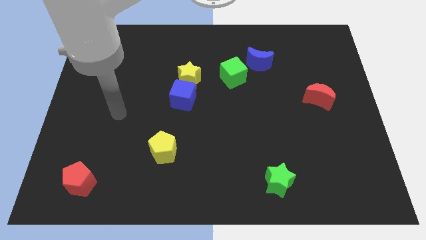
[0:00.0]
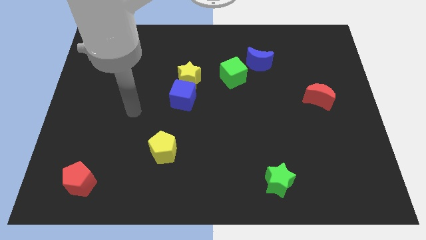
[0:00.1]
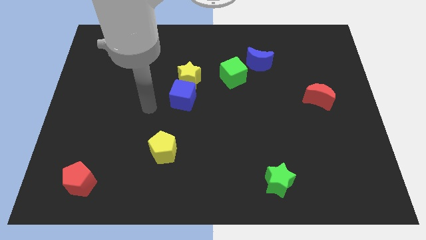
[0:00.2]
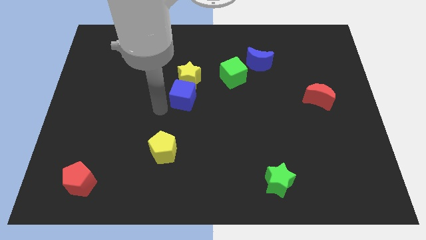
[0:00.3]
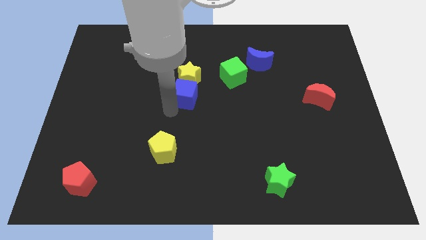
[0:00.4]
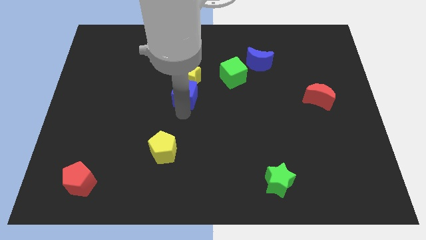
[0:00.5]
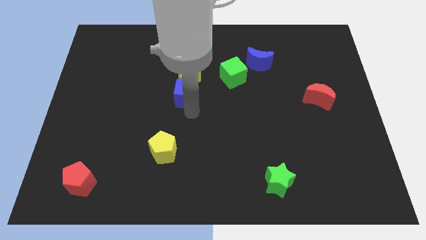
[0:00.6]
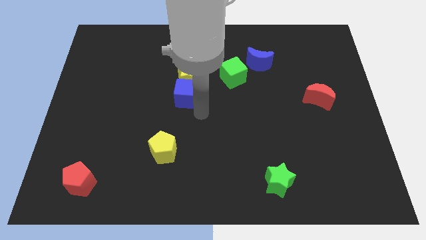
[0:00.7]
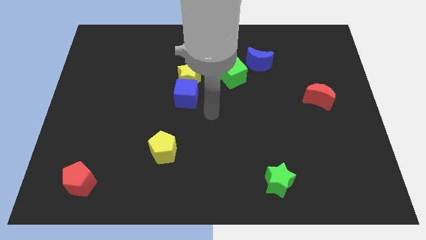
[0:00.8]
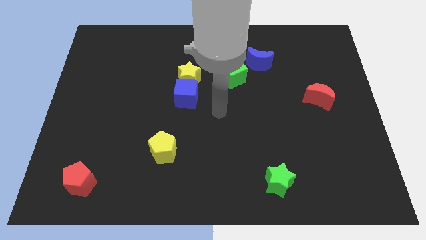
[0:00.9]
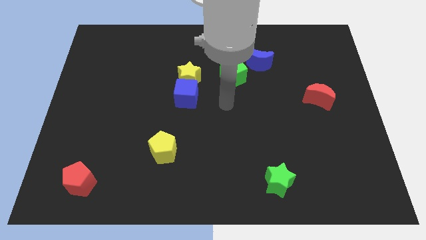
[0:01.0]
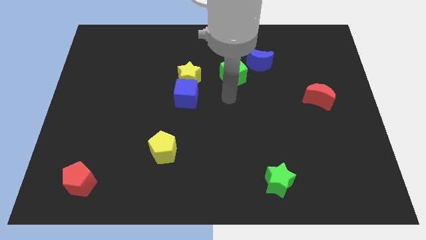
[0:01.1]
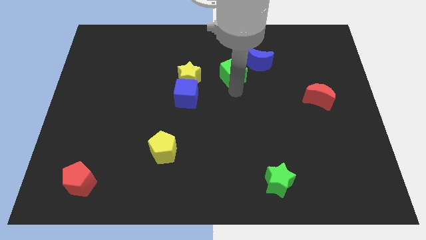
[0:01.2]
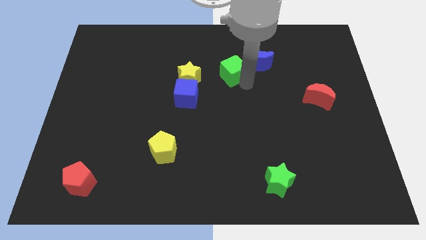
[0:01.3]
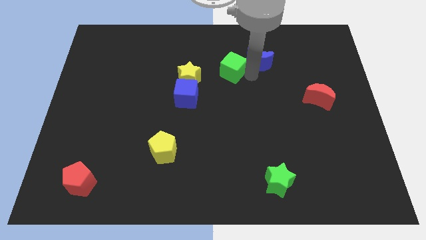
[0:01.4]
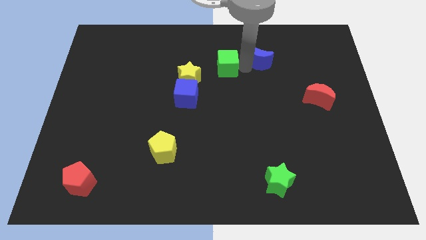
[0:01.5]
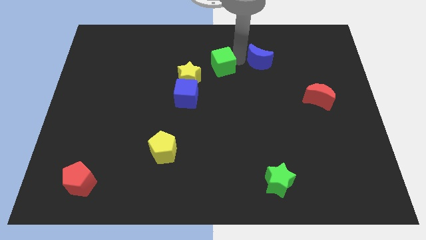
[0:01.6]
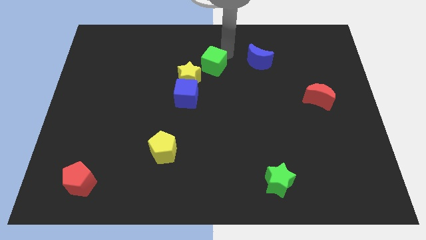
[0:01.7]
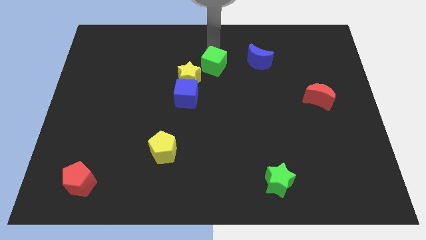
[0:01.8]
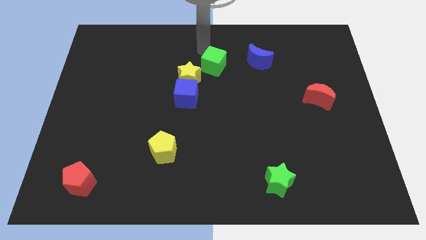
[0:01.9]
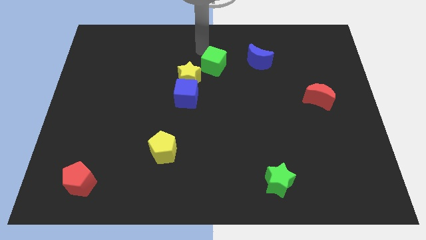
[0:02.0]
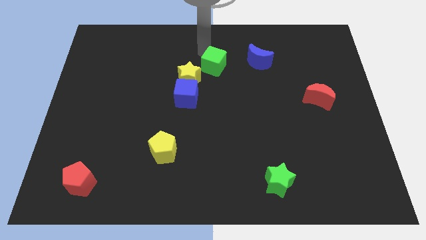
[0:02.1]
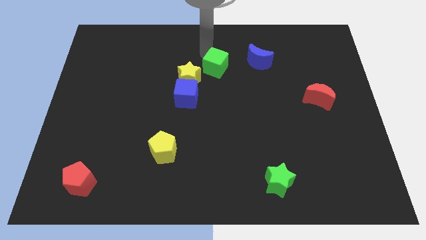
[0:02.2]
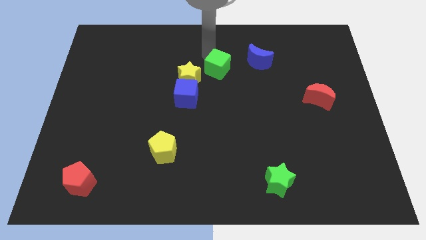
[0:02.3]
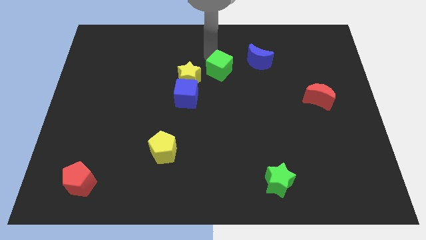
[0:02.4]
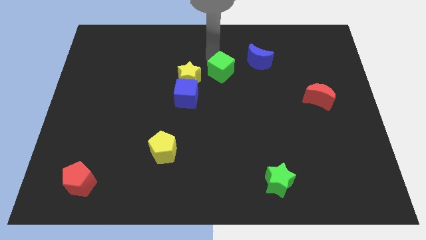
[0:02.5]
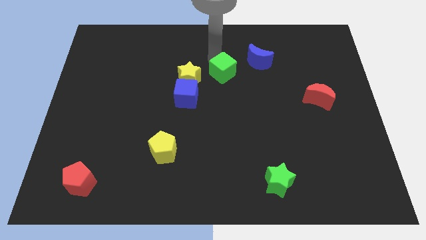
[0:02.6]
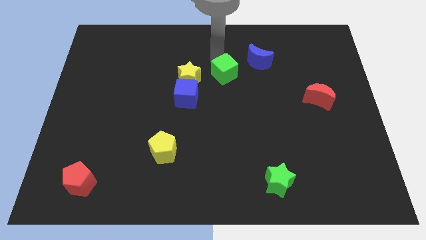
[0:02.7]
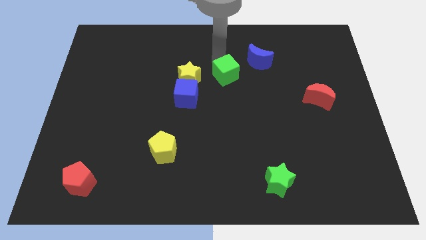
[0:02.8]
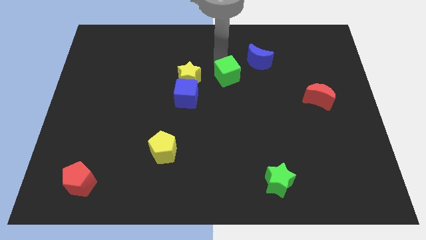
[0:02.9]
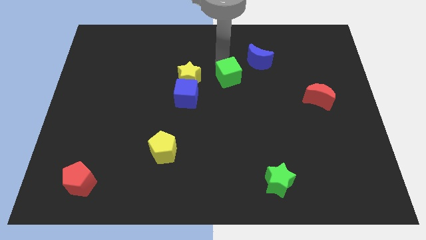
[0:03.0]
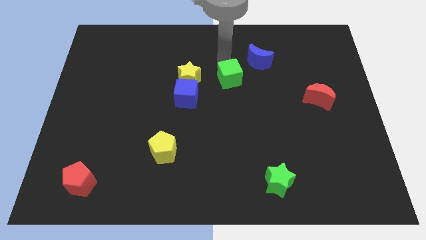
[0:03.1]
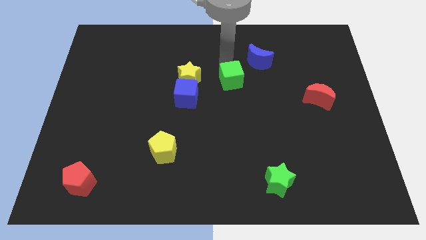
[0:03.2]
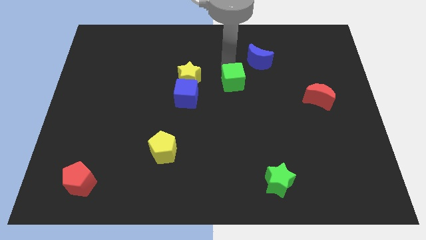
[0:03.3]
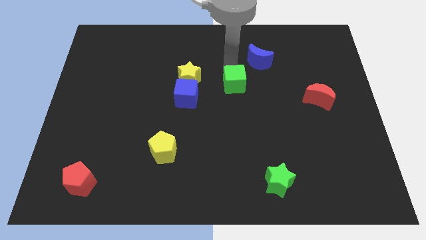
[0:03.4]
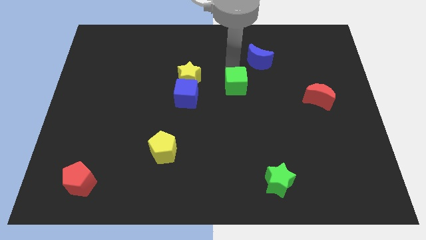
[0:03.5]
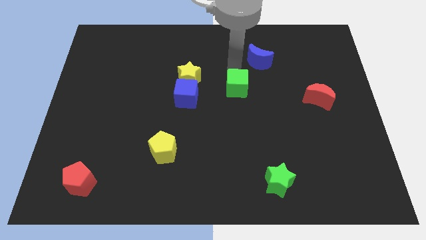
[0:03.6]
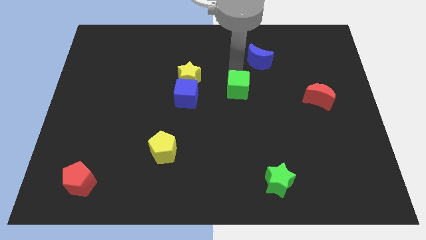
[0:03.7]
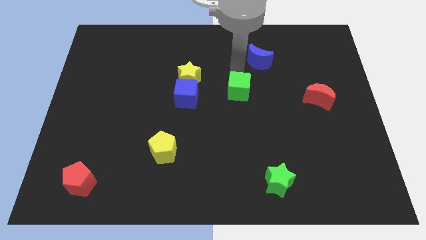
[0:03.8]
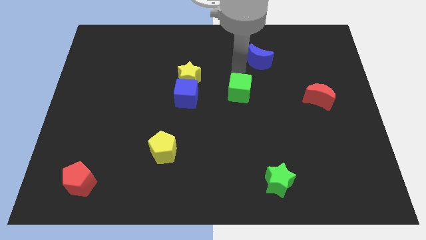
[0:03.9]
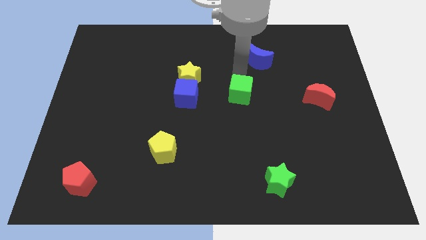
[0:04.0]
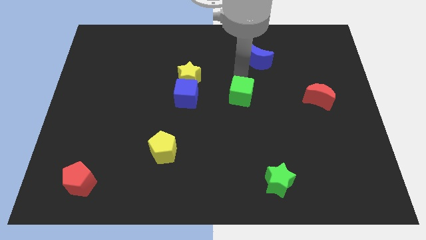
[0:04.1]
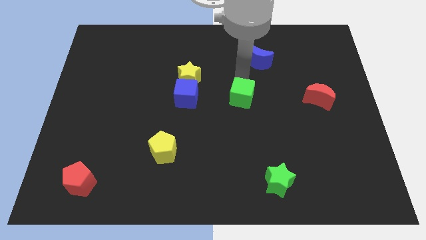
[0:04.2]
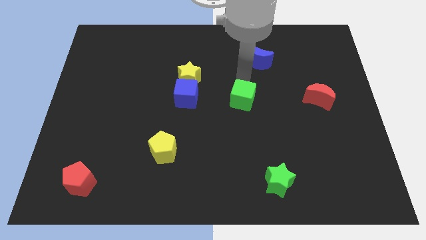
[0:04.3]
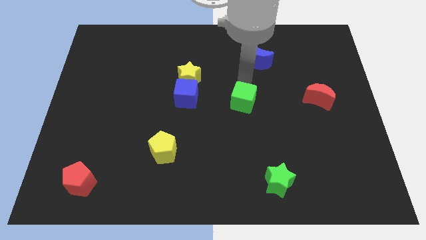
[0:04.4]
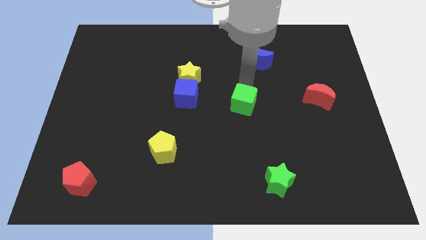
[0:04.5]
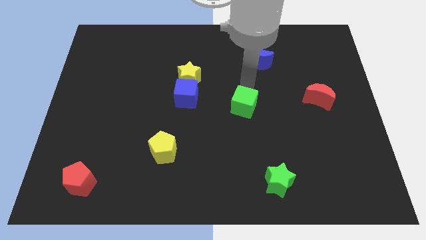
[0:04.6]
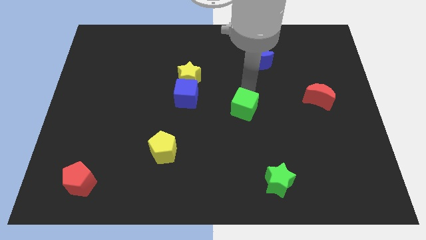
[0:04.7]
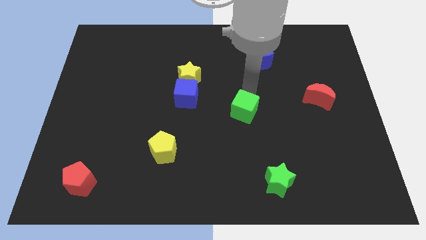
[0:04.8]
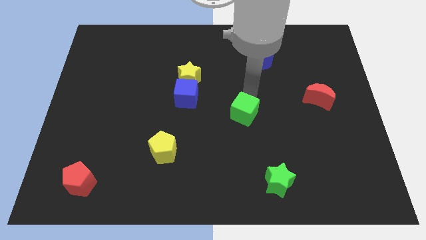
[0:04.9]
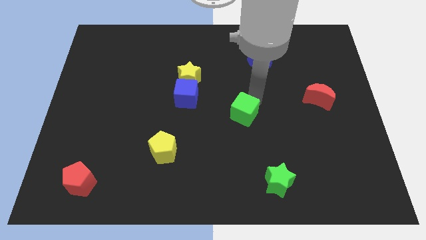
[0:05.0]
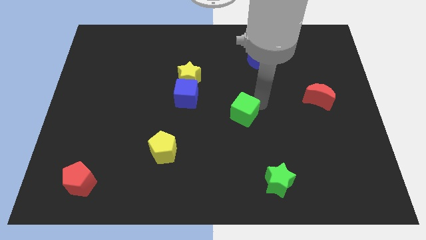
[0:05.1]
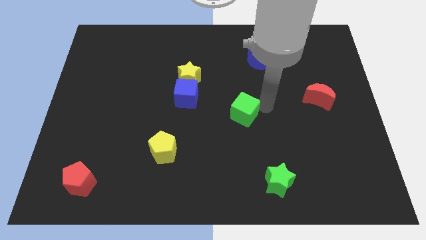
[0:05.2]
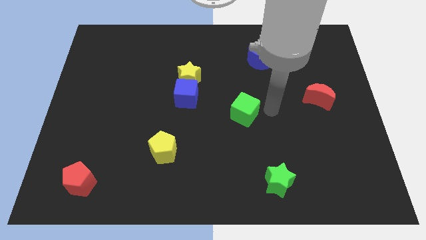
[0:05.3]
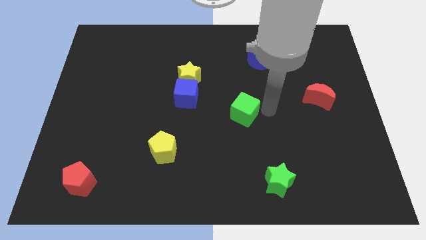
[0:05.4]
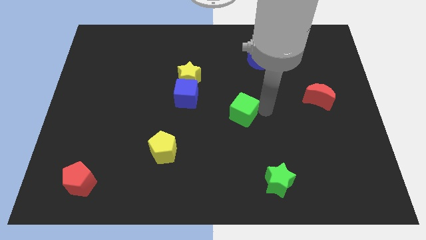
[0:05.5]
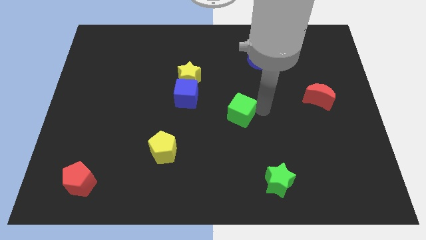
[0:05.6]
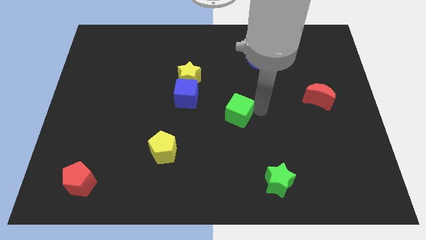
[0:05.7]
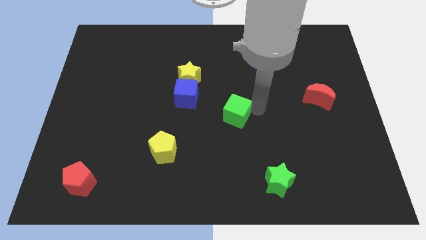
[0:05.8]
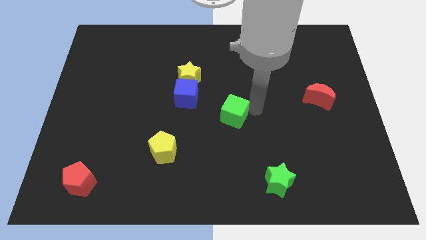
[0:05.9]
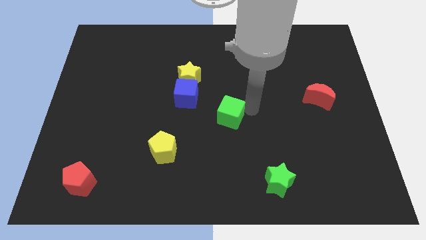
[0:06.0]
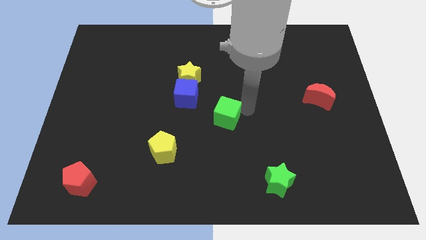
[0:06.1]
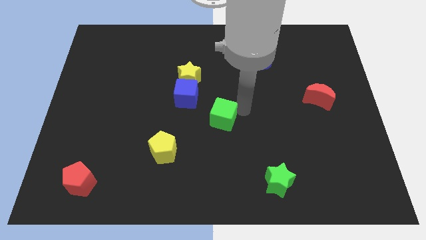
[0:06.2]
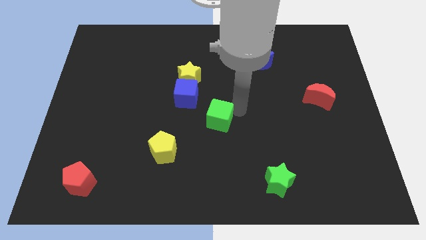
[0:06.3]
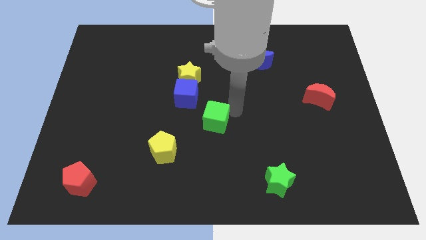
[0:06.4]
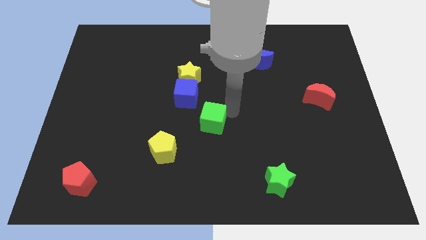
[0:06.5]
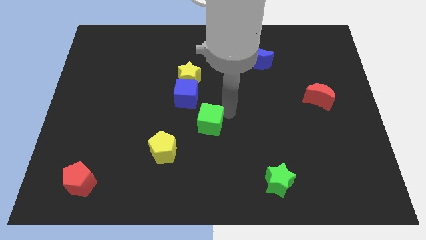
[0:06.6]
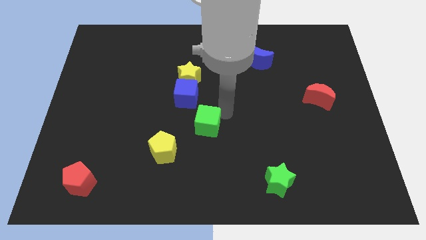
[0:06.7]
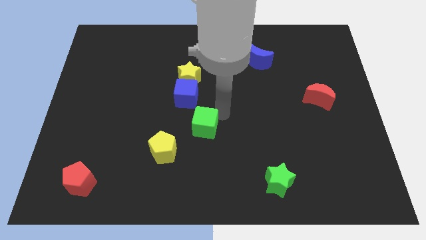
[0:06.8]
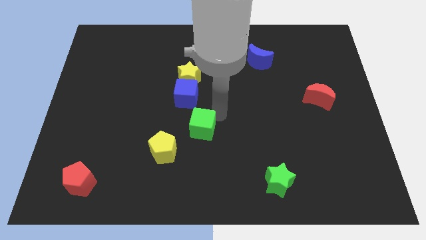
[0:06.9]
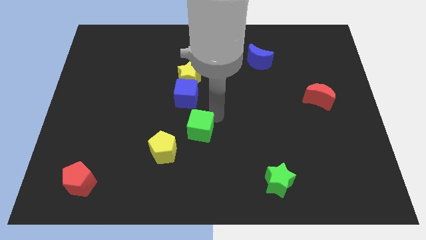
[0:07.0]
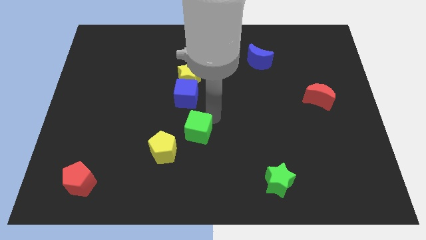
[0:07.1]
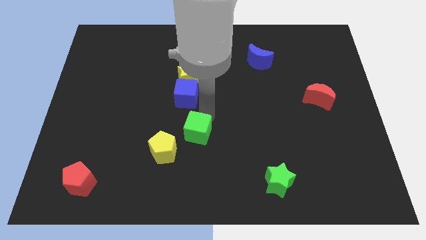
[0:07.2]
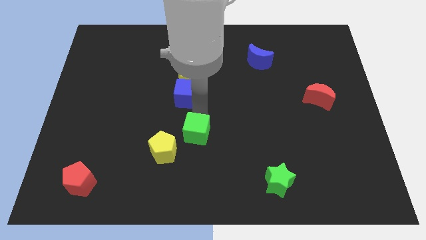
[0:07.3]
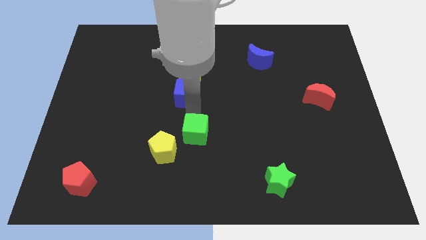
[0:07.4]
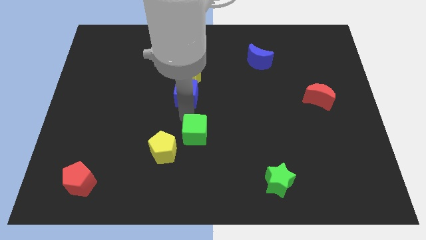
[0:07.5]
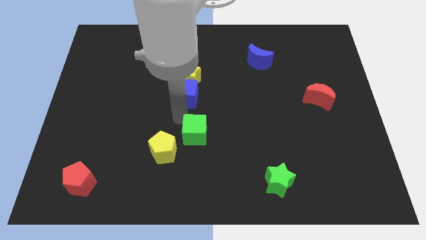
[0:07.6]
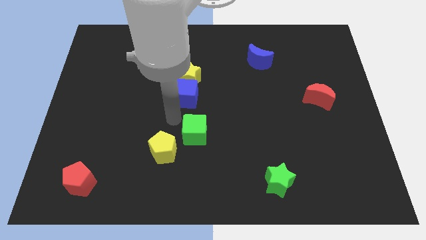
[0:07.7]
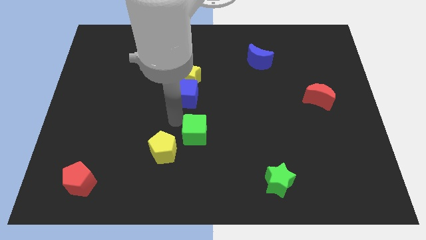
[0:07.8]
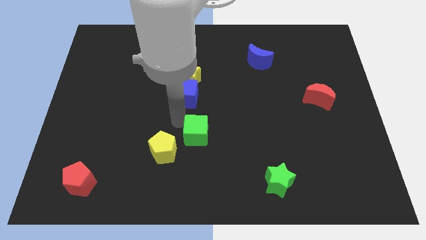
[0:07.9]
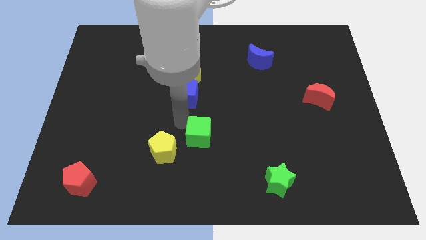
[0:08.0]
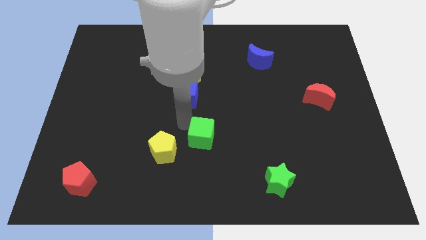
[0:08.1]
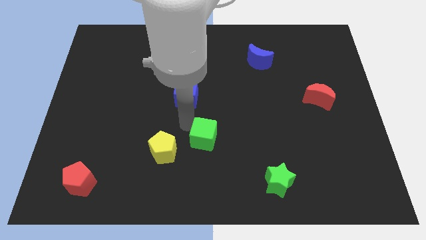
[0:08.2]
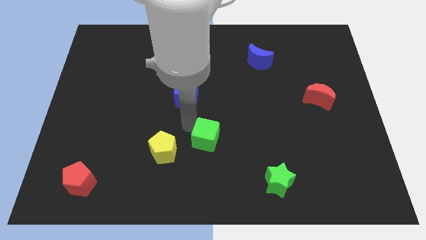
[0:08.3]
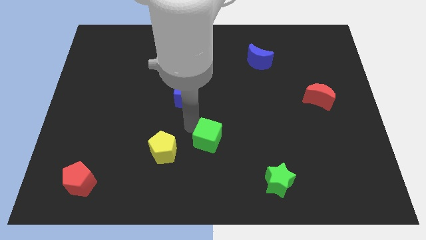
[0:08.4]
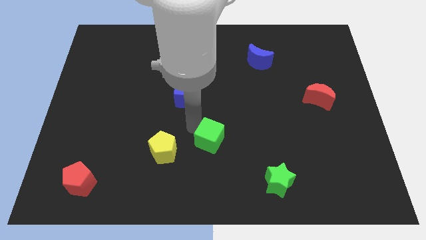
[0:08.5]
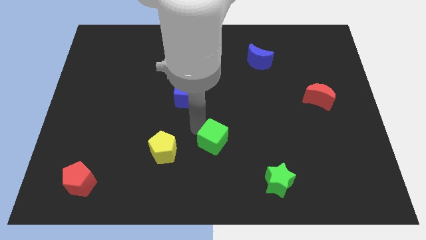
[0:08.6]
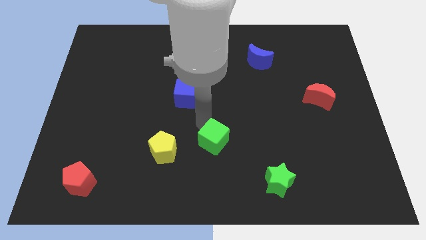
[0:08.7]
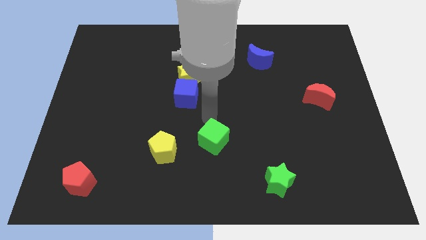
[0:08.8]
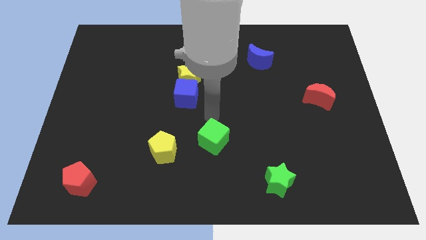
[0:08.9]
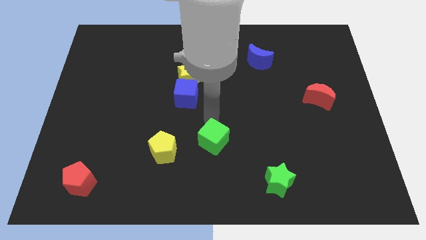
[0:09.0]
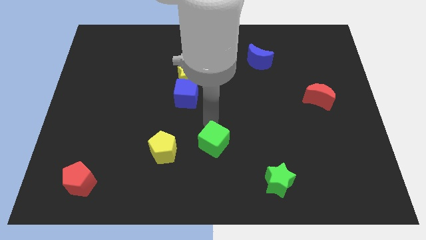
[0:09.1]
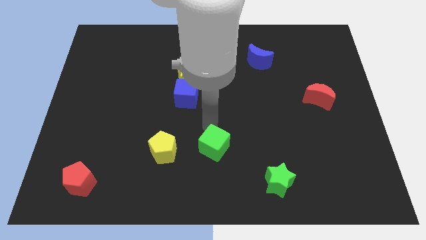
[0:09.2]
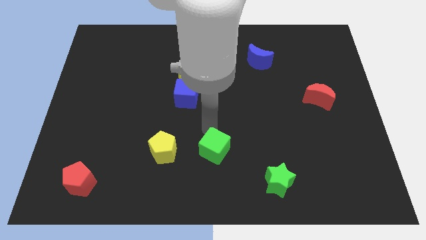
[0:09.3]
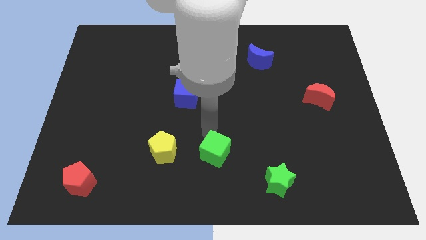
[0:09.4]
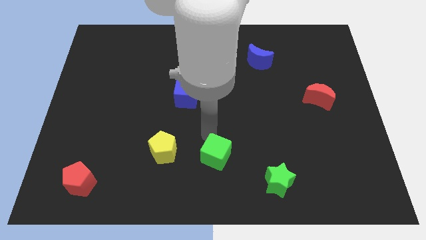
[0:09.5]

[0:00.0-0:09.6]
push the green cube to the bottom side
